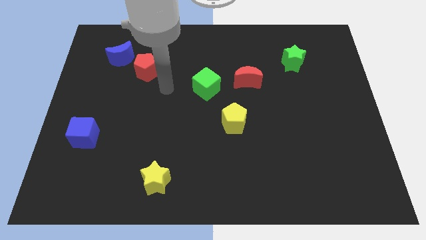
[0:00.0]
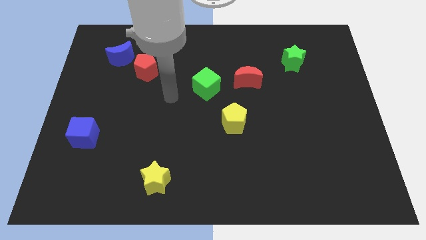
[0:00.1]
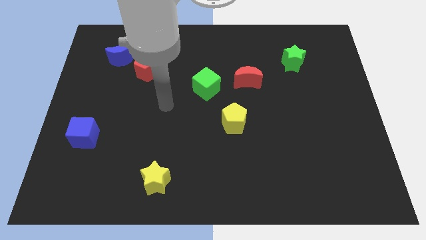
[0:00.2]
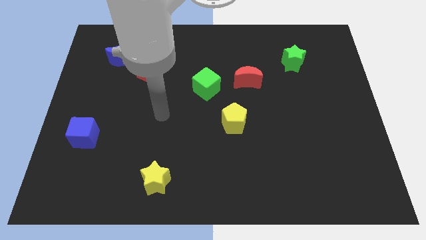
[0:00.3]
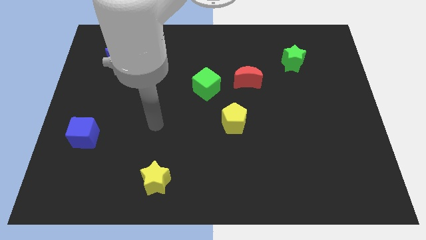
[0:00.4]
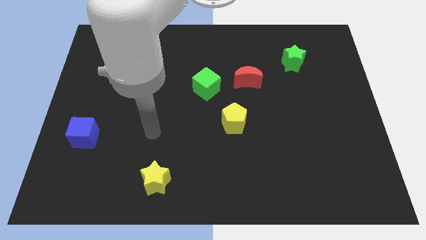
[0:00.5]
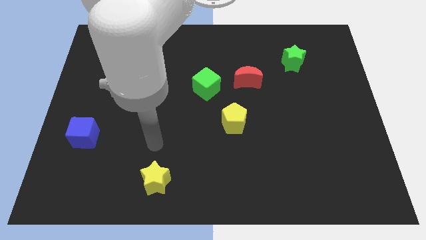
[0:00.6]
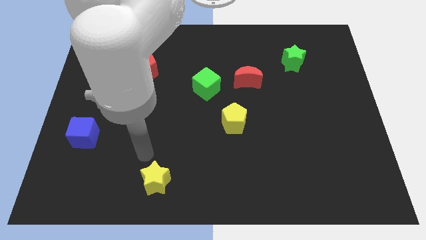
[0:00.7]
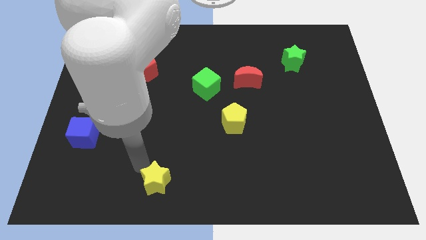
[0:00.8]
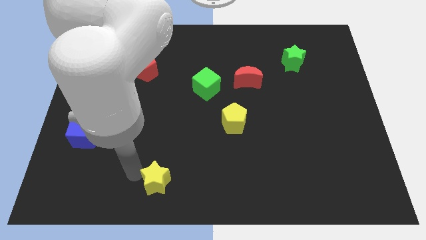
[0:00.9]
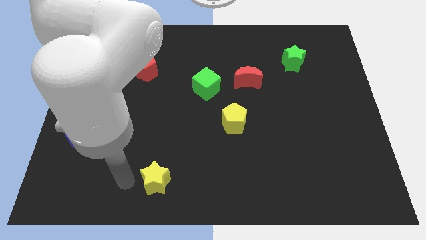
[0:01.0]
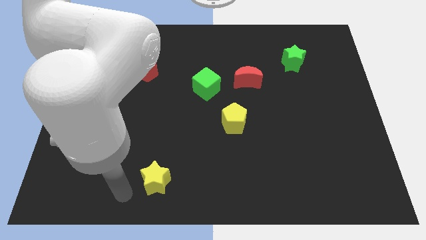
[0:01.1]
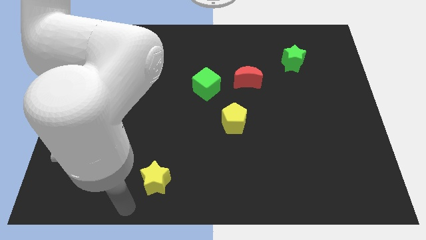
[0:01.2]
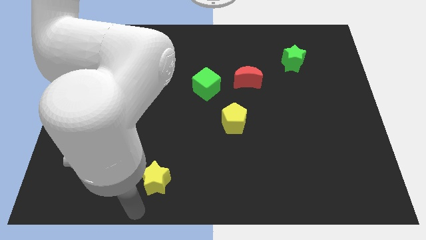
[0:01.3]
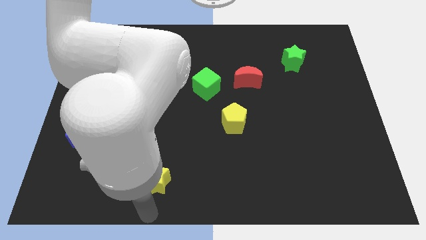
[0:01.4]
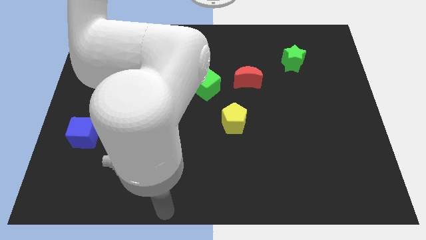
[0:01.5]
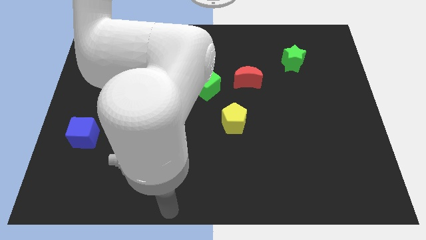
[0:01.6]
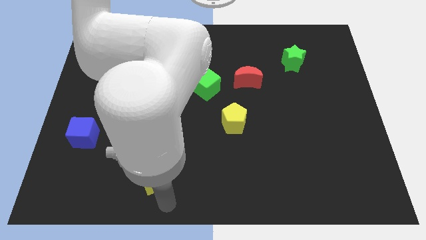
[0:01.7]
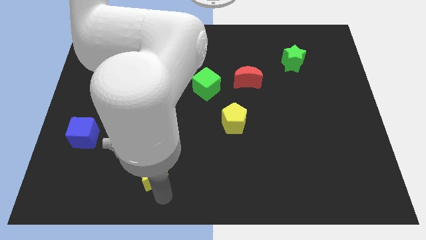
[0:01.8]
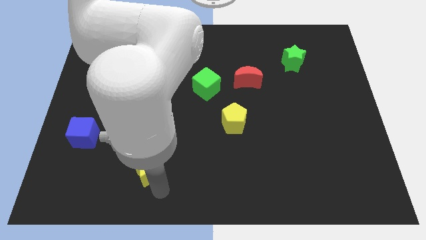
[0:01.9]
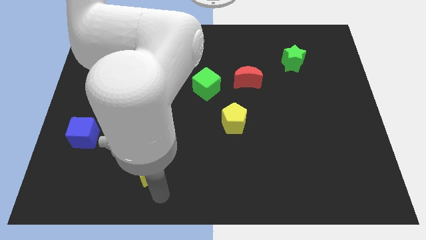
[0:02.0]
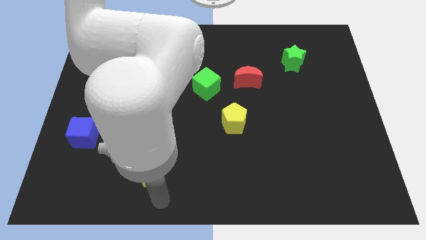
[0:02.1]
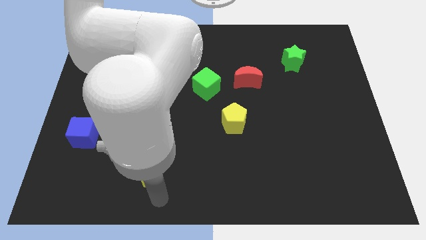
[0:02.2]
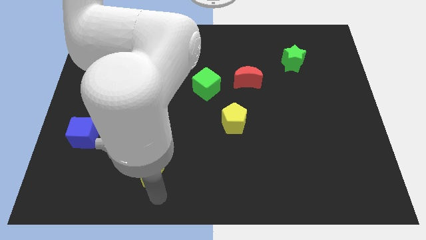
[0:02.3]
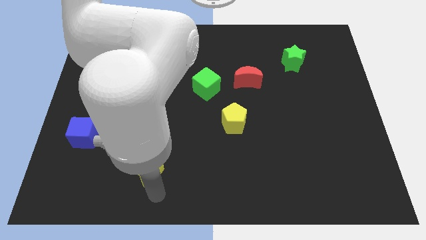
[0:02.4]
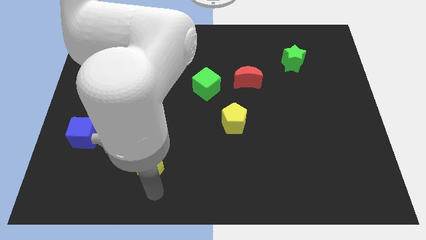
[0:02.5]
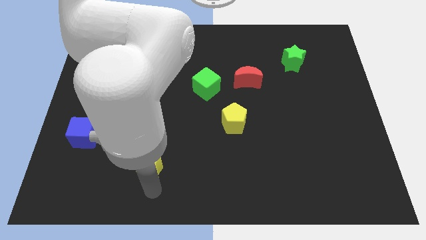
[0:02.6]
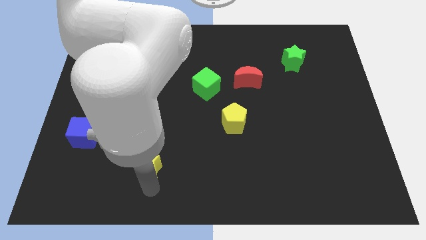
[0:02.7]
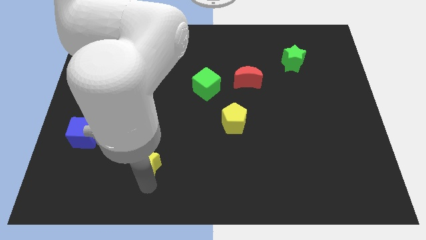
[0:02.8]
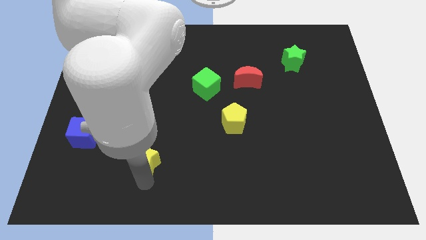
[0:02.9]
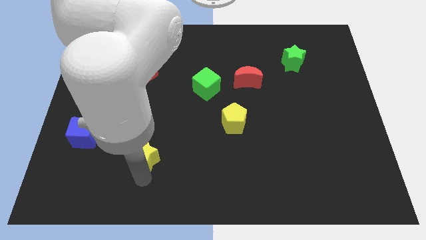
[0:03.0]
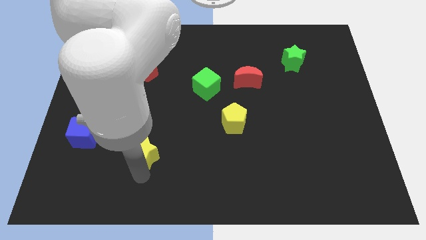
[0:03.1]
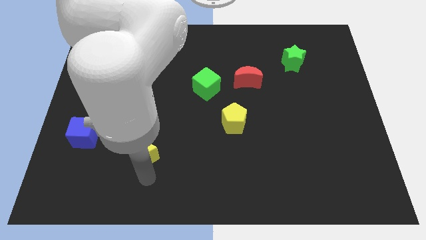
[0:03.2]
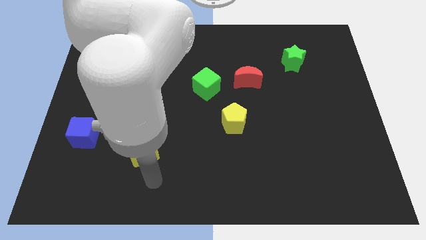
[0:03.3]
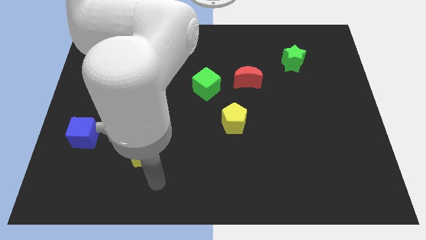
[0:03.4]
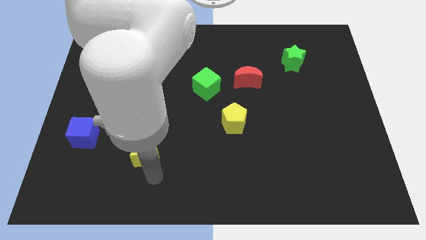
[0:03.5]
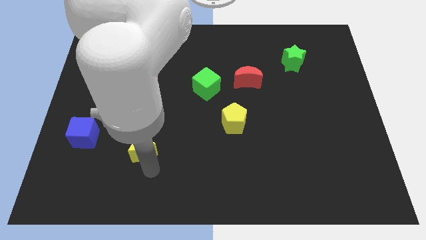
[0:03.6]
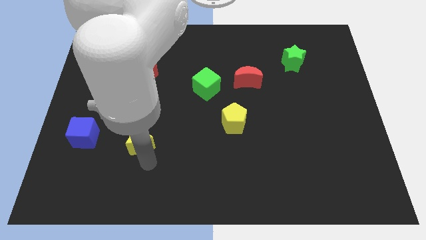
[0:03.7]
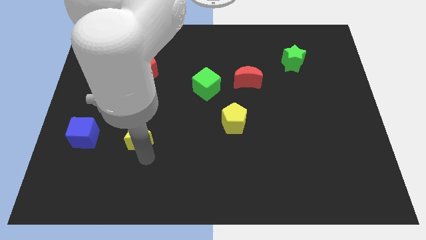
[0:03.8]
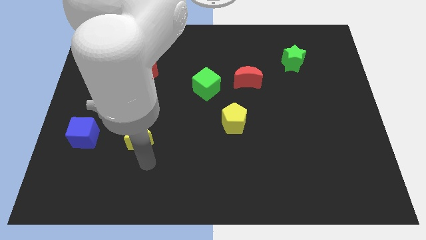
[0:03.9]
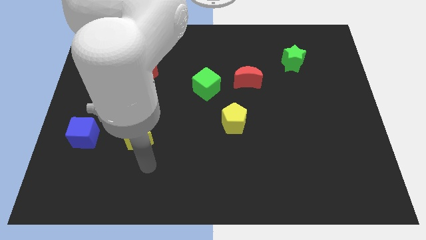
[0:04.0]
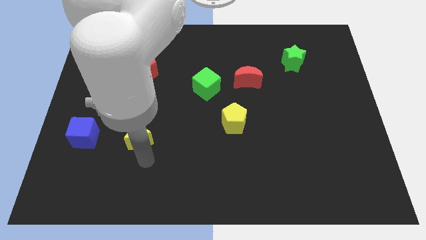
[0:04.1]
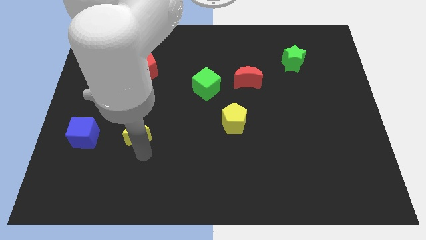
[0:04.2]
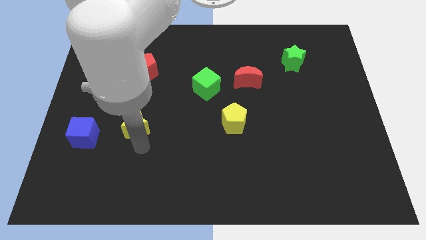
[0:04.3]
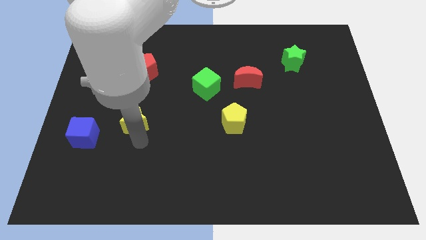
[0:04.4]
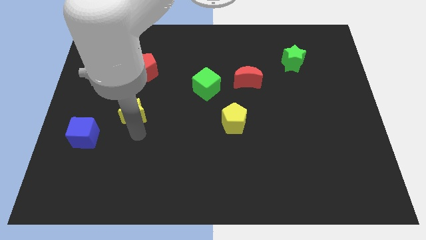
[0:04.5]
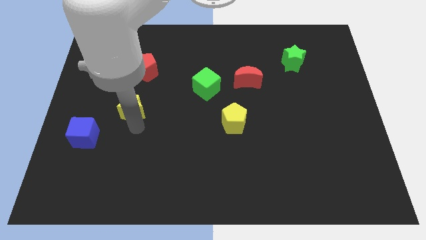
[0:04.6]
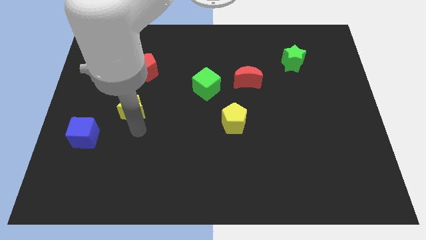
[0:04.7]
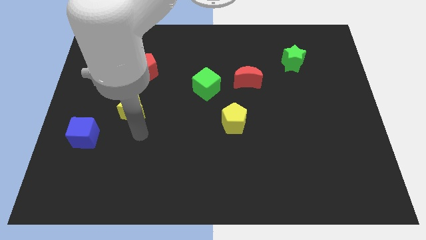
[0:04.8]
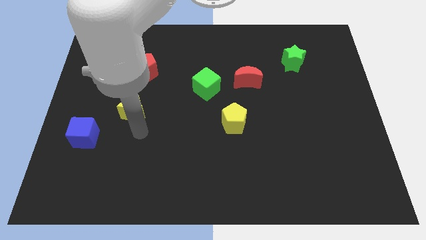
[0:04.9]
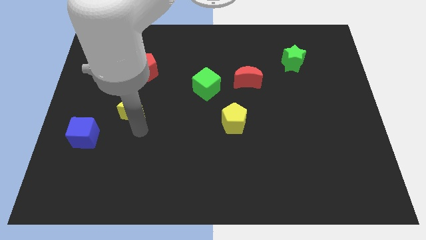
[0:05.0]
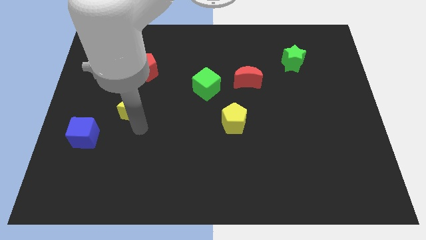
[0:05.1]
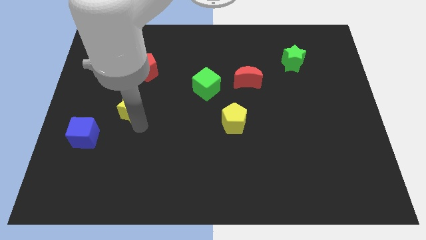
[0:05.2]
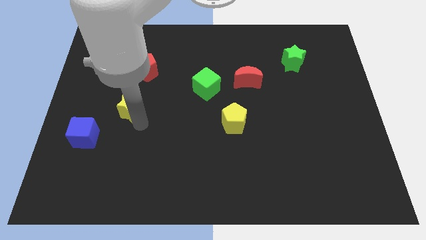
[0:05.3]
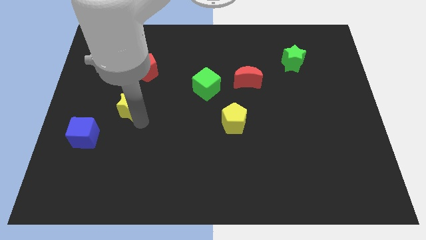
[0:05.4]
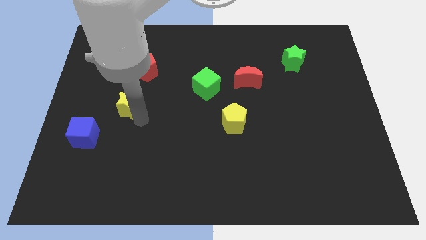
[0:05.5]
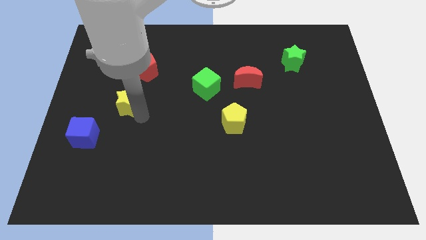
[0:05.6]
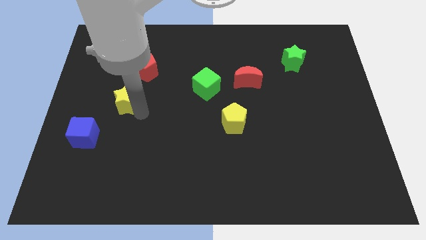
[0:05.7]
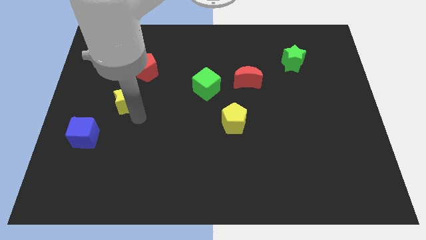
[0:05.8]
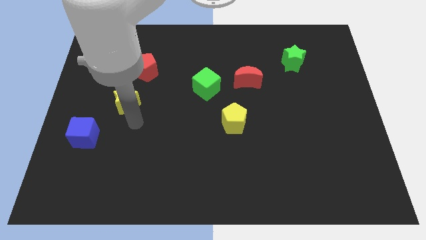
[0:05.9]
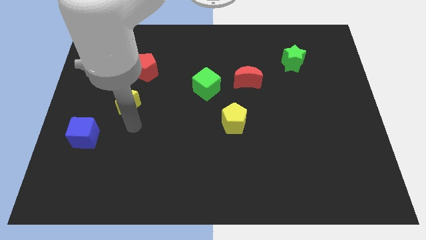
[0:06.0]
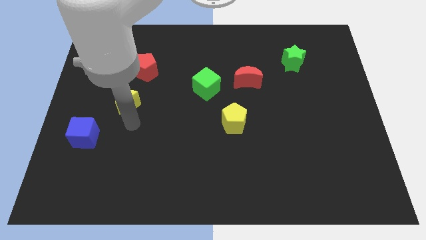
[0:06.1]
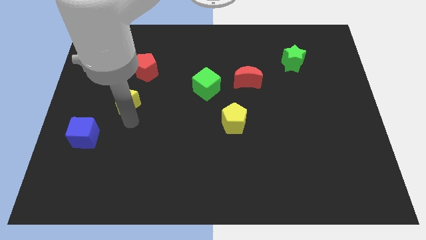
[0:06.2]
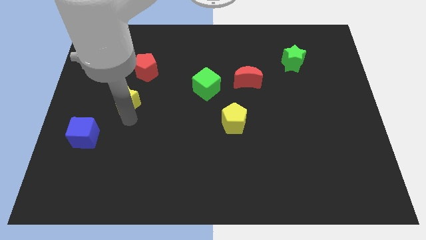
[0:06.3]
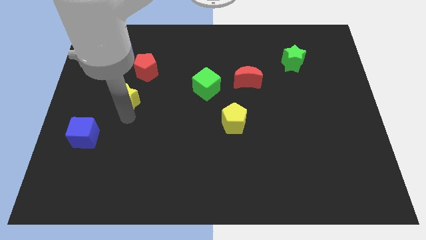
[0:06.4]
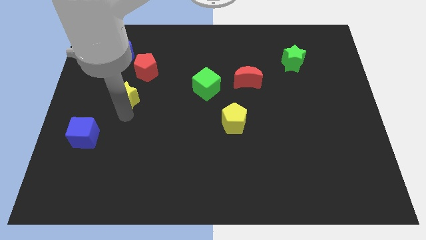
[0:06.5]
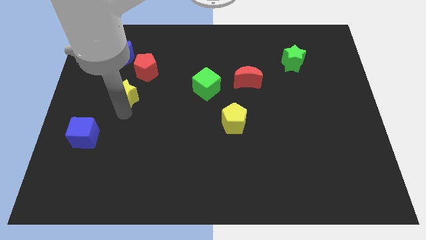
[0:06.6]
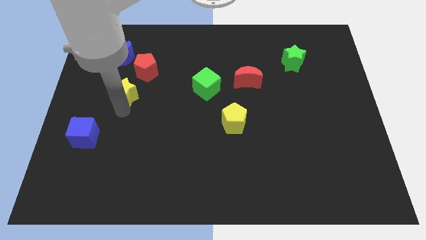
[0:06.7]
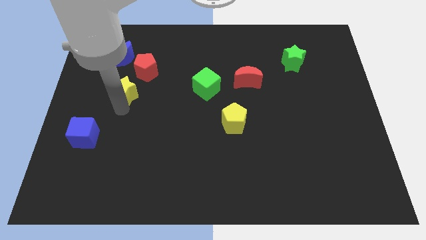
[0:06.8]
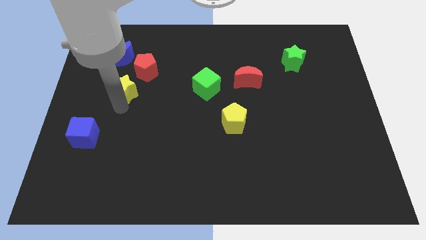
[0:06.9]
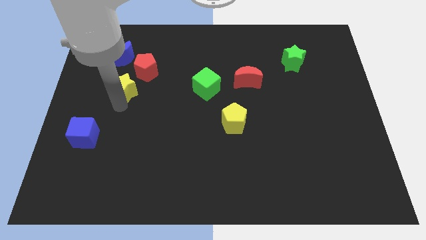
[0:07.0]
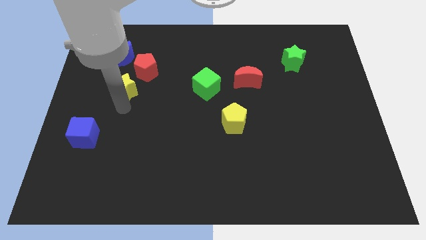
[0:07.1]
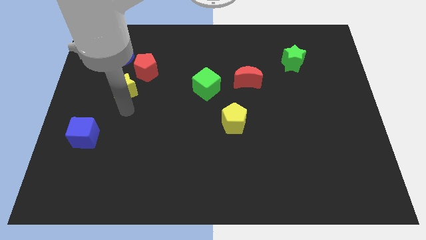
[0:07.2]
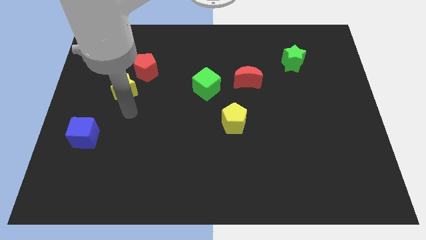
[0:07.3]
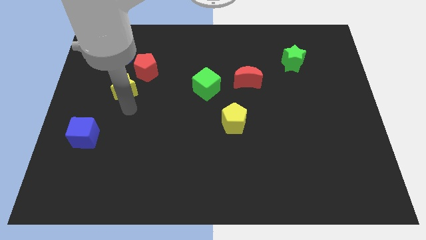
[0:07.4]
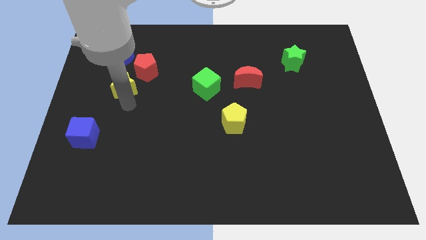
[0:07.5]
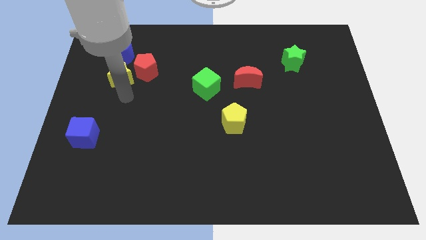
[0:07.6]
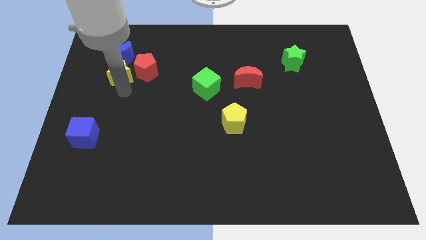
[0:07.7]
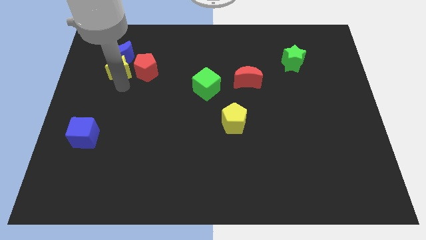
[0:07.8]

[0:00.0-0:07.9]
put the yellow star towards the blue moon
